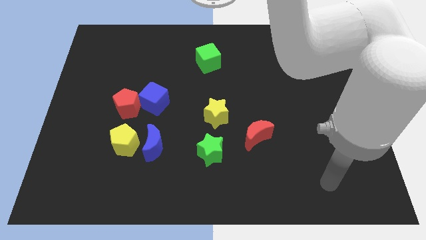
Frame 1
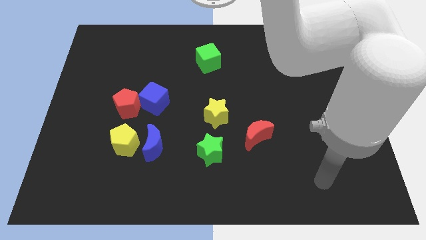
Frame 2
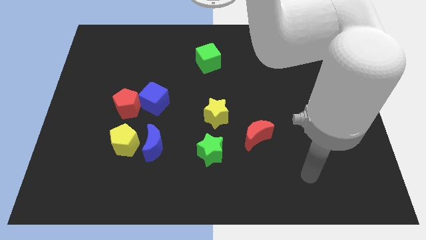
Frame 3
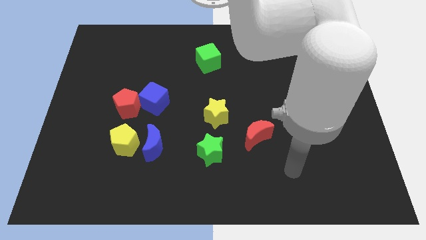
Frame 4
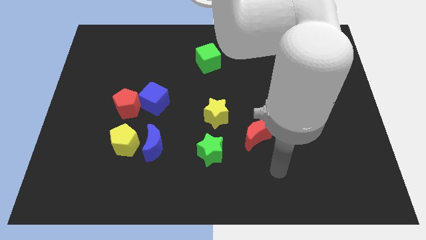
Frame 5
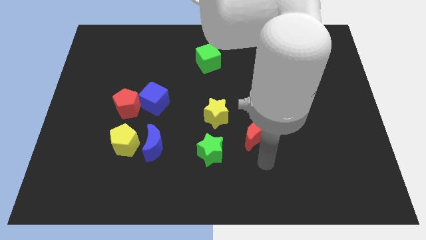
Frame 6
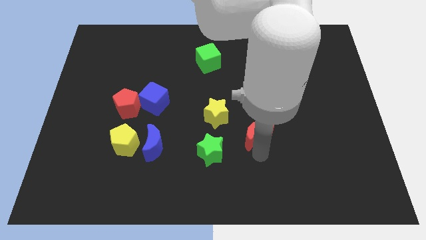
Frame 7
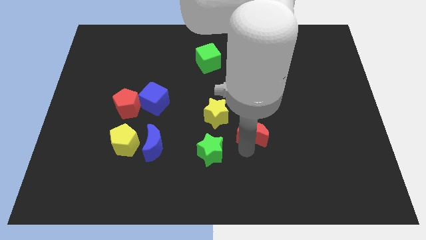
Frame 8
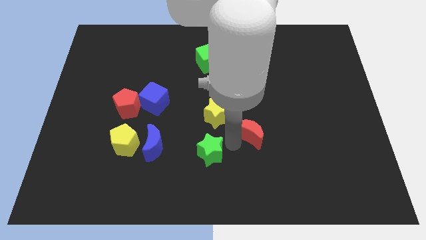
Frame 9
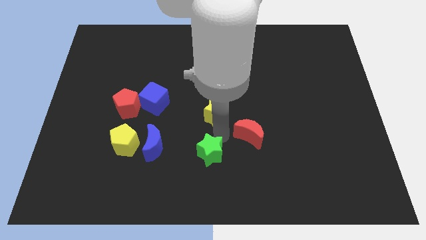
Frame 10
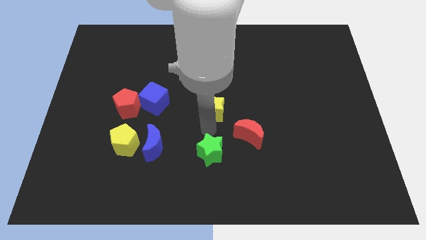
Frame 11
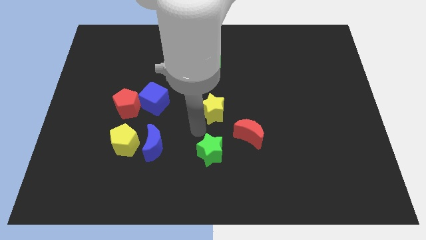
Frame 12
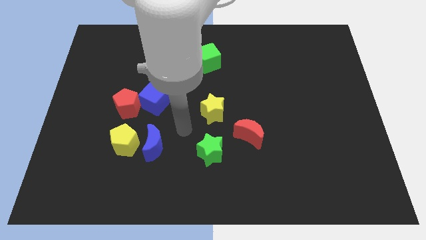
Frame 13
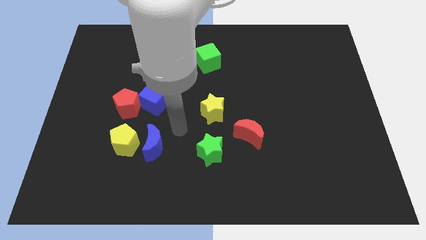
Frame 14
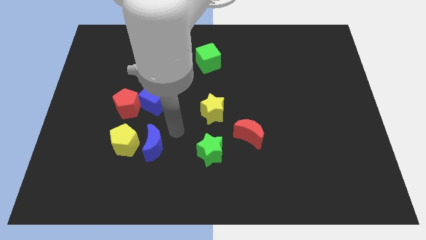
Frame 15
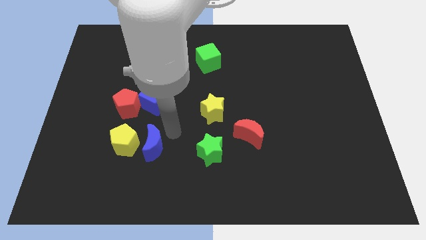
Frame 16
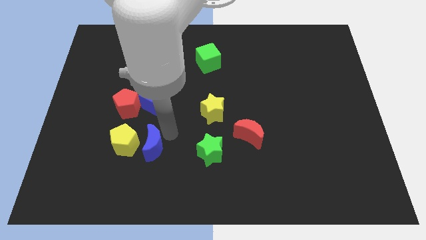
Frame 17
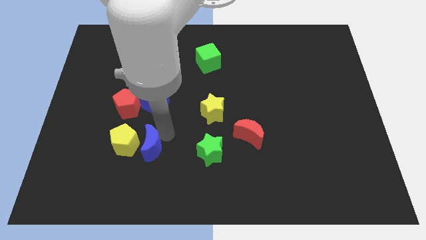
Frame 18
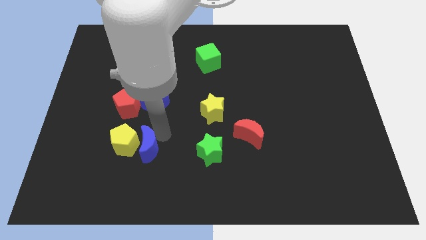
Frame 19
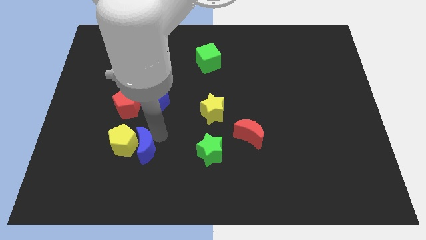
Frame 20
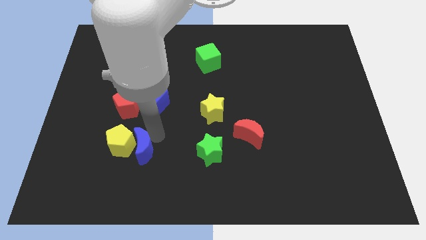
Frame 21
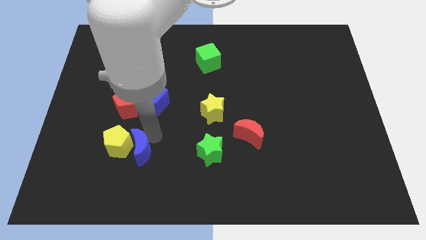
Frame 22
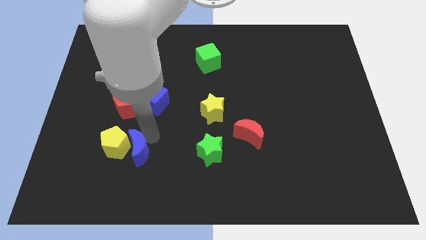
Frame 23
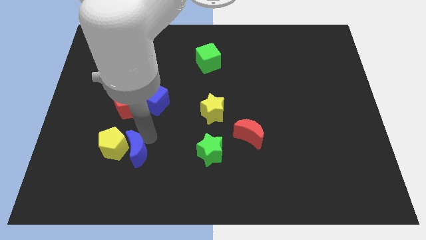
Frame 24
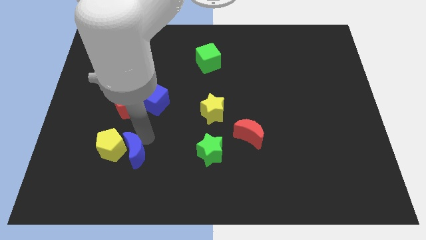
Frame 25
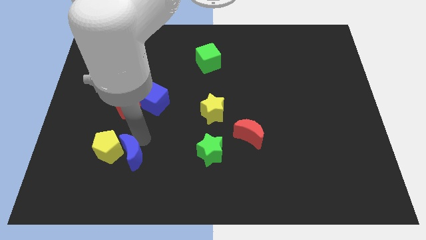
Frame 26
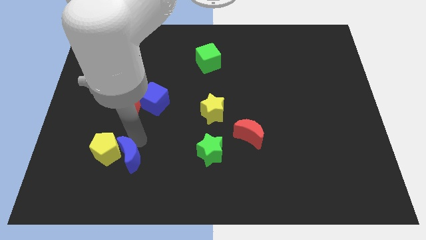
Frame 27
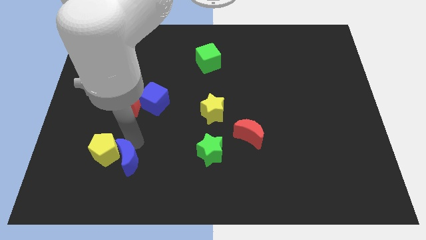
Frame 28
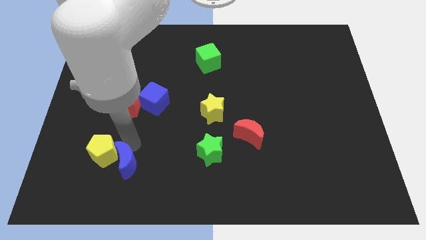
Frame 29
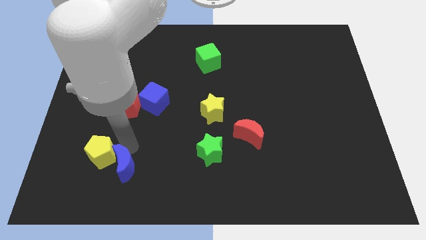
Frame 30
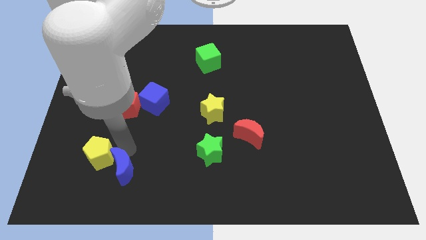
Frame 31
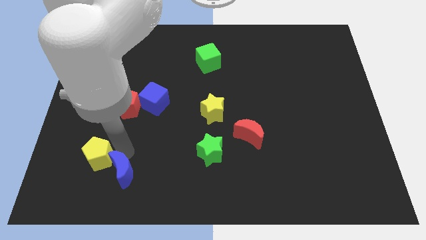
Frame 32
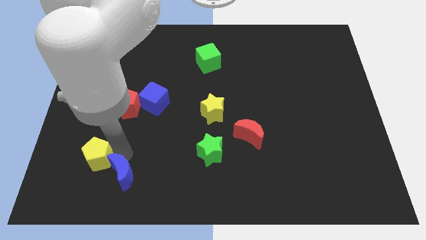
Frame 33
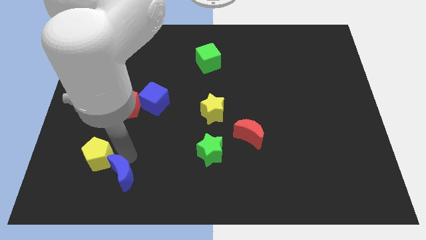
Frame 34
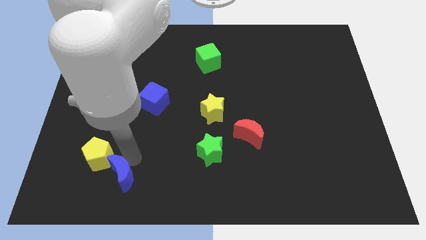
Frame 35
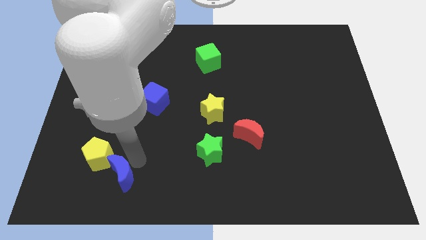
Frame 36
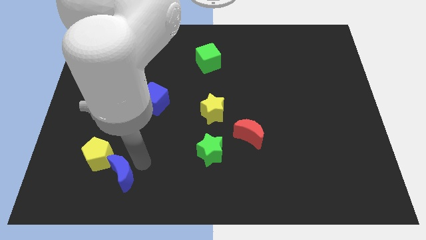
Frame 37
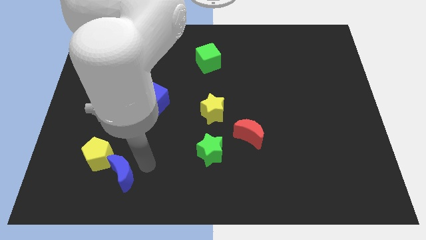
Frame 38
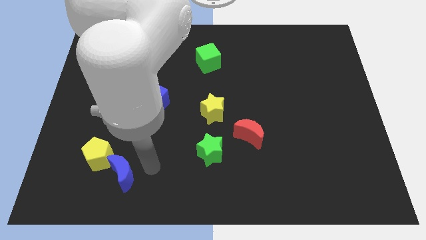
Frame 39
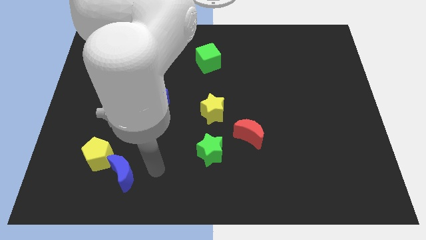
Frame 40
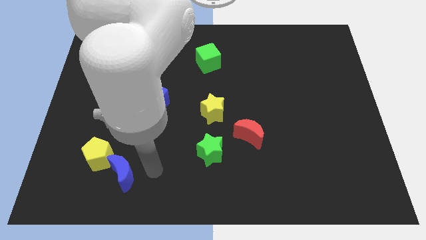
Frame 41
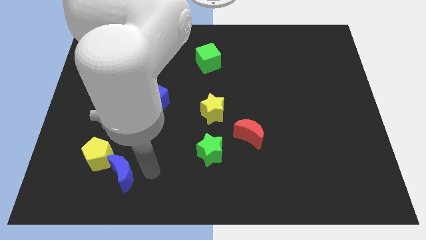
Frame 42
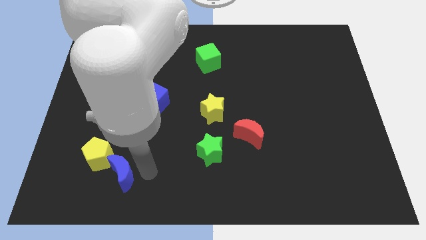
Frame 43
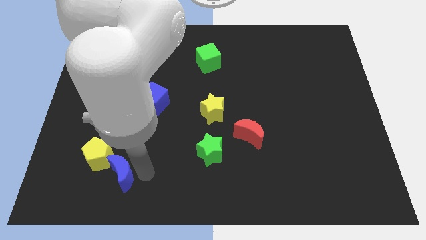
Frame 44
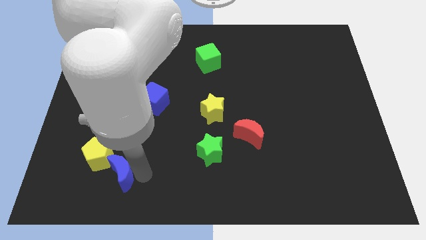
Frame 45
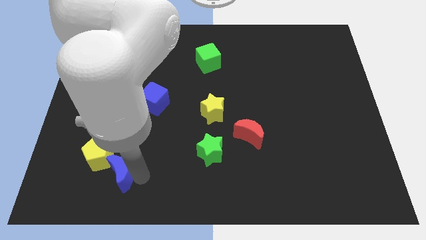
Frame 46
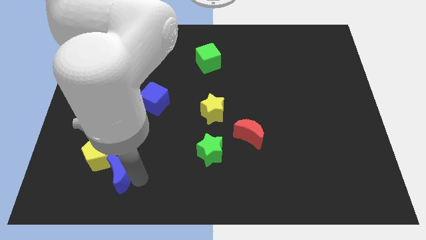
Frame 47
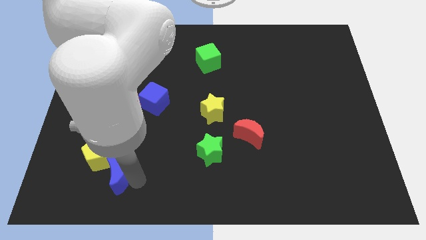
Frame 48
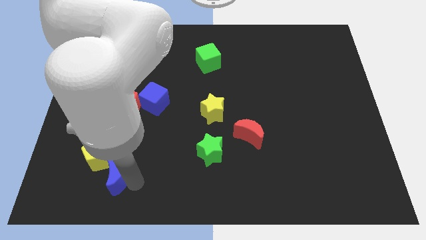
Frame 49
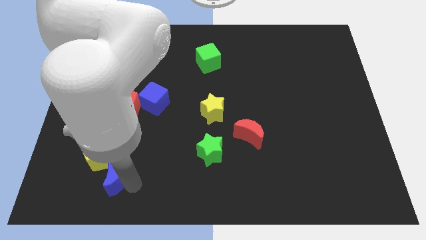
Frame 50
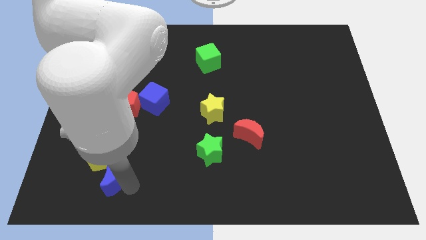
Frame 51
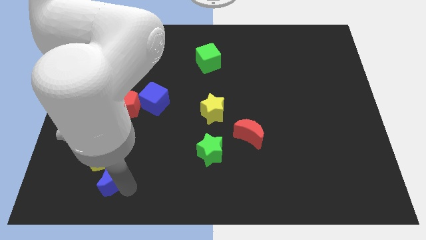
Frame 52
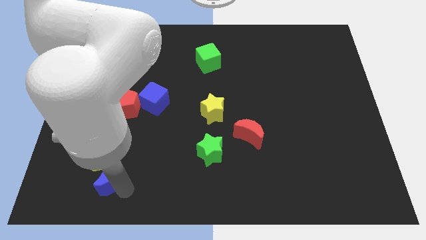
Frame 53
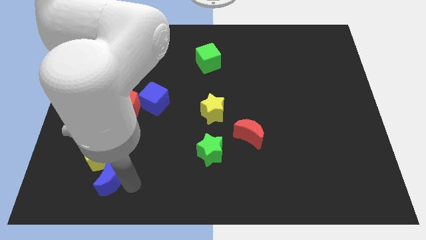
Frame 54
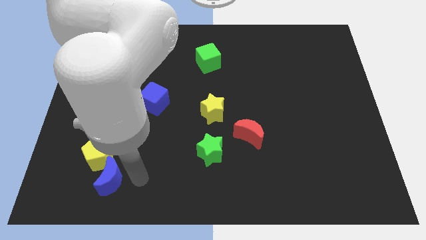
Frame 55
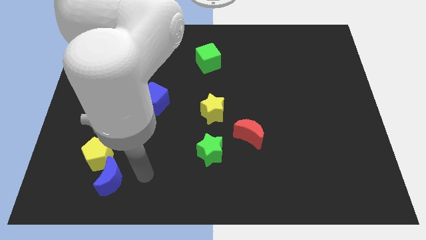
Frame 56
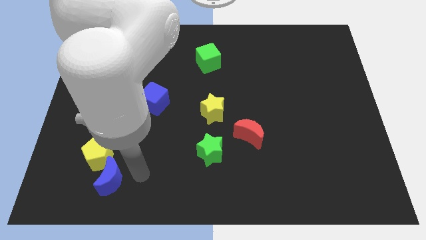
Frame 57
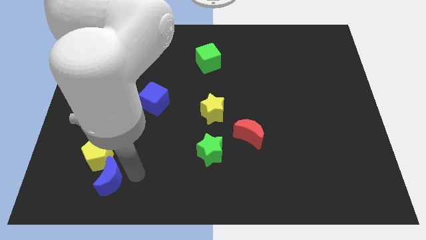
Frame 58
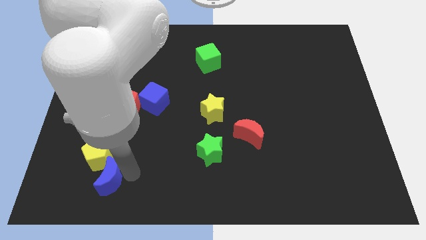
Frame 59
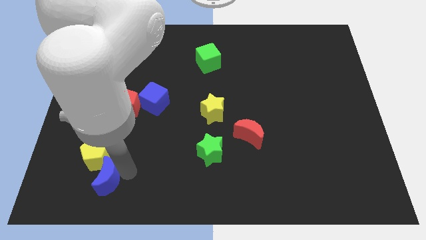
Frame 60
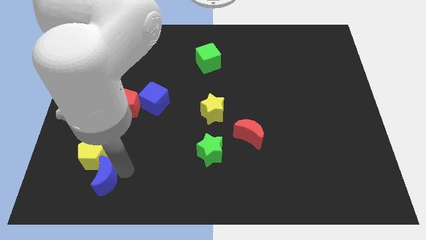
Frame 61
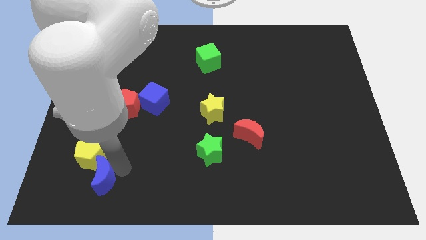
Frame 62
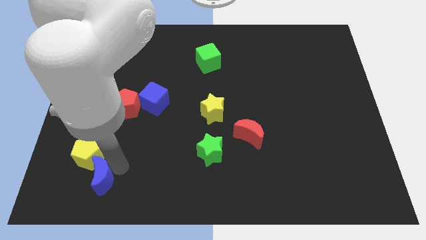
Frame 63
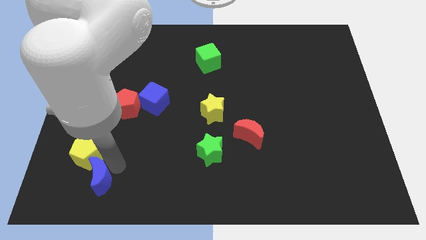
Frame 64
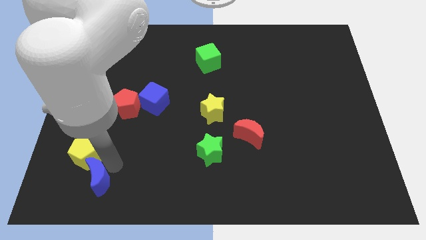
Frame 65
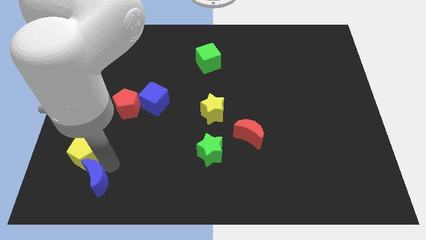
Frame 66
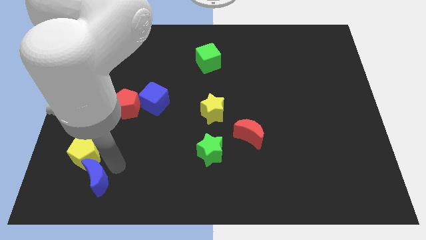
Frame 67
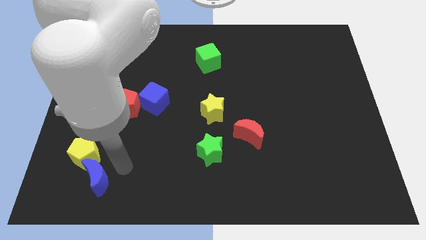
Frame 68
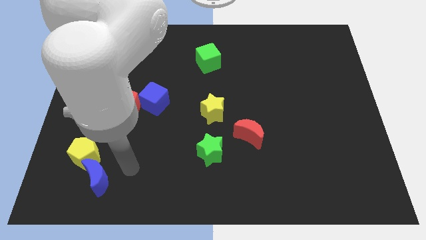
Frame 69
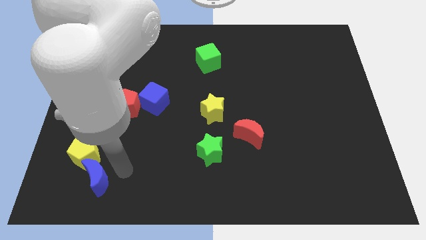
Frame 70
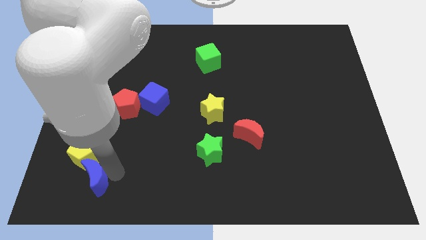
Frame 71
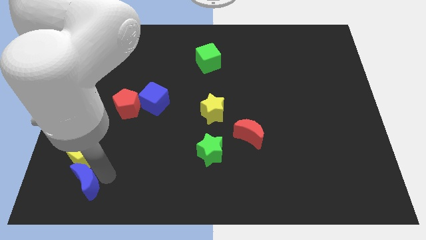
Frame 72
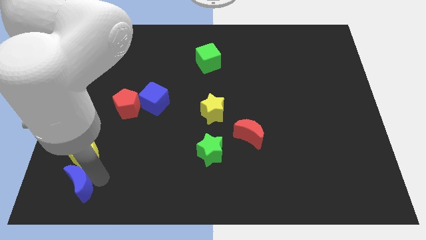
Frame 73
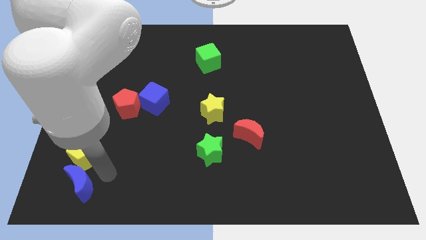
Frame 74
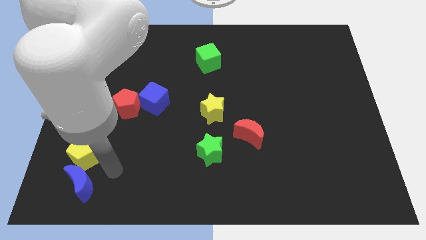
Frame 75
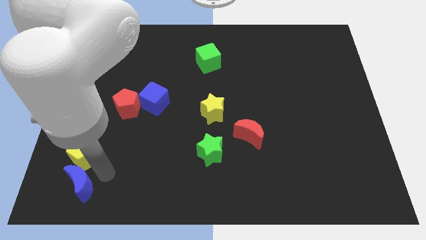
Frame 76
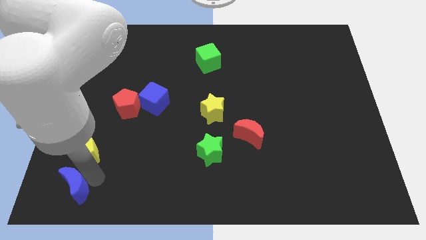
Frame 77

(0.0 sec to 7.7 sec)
push the blue moon to the bottom left of the board
